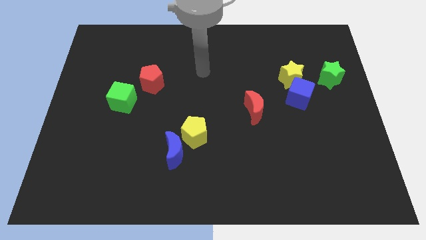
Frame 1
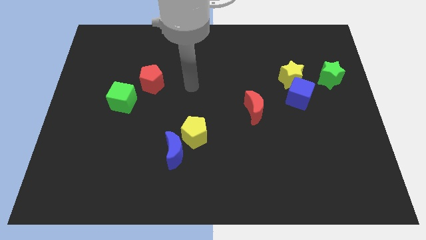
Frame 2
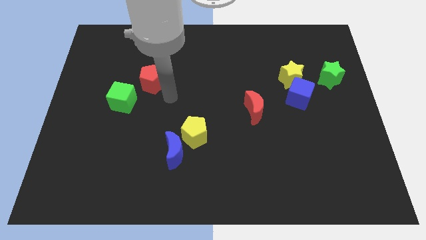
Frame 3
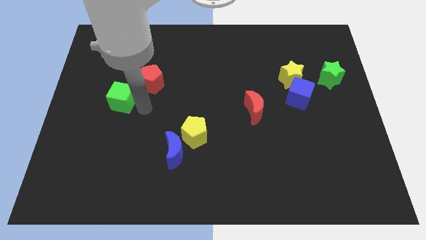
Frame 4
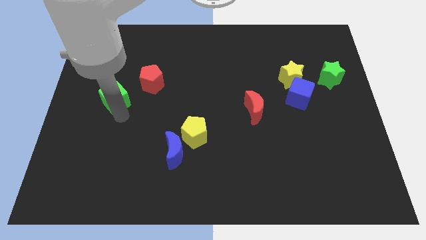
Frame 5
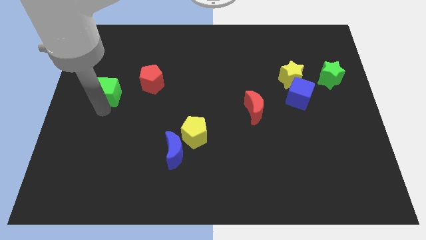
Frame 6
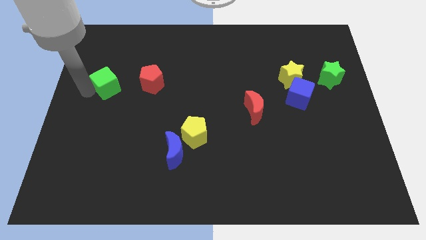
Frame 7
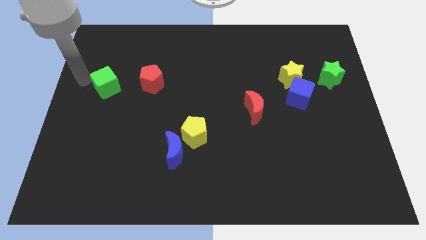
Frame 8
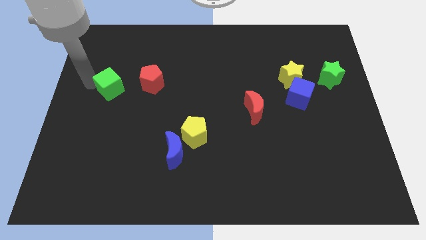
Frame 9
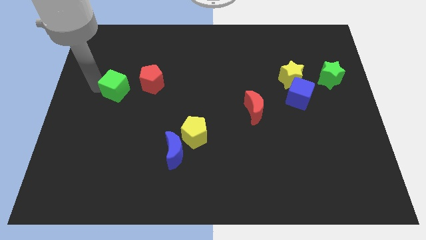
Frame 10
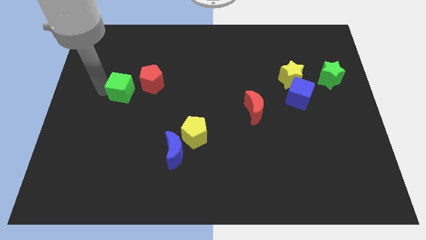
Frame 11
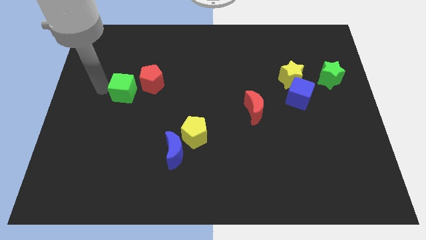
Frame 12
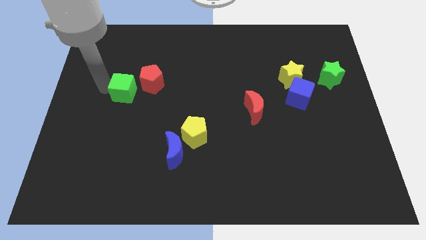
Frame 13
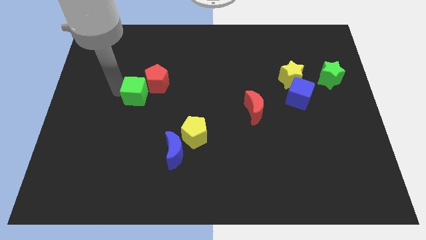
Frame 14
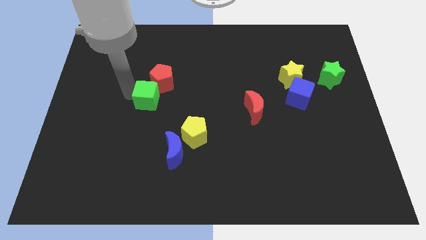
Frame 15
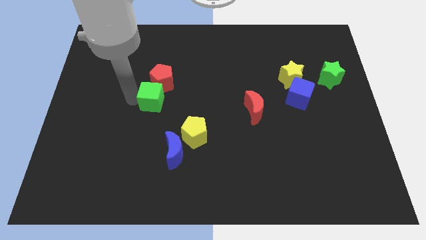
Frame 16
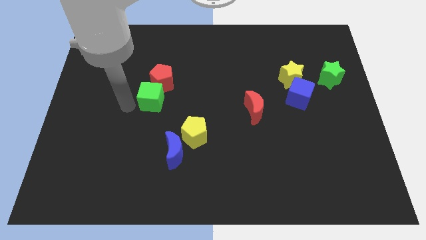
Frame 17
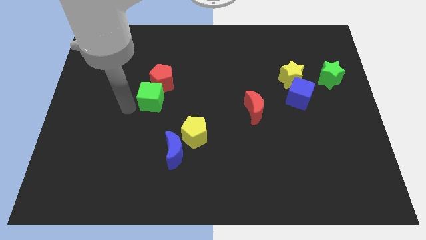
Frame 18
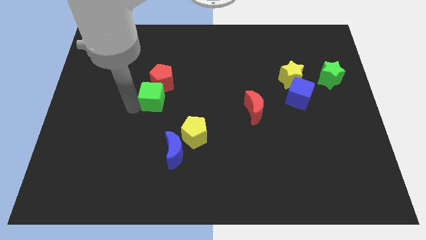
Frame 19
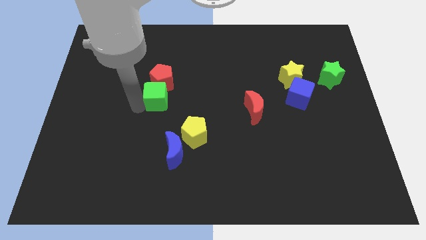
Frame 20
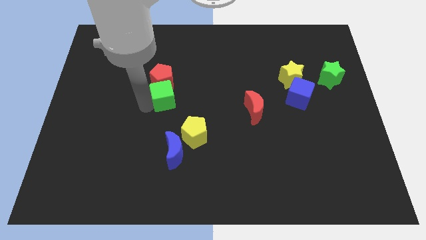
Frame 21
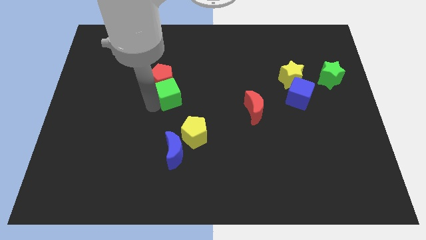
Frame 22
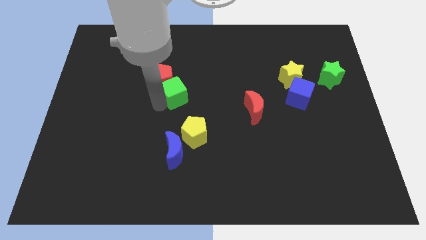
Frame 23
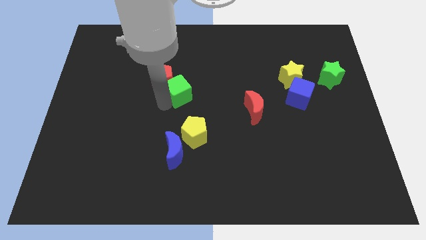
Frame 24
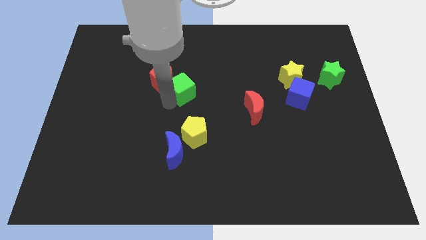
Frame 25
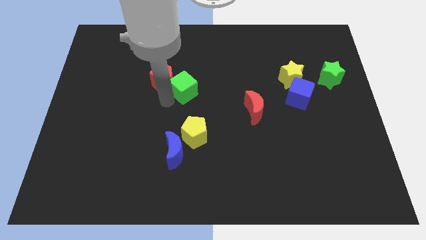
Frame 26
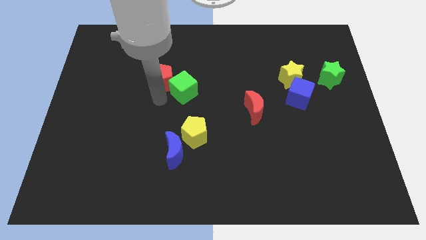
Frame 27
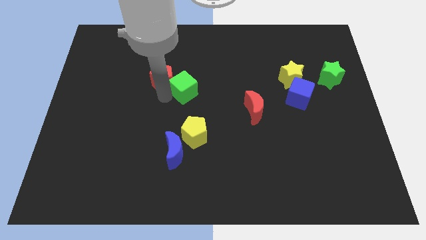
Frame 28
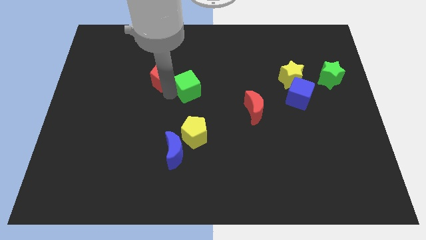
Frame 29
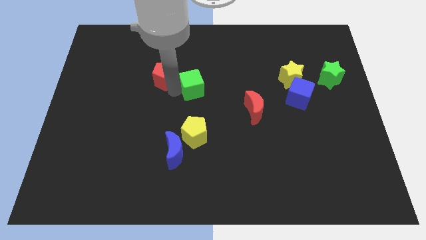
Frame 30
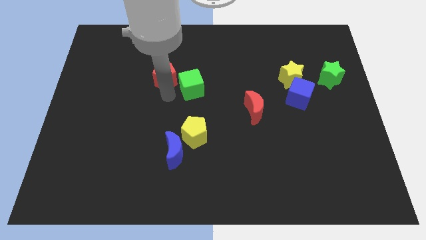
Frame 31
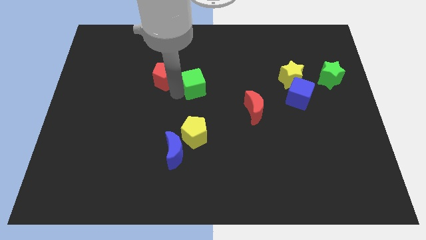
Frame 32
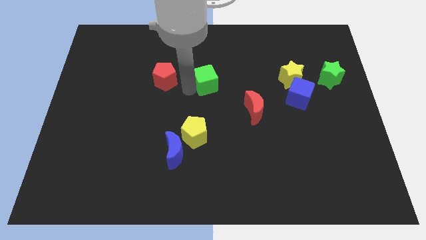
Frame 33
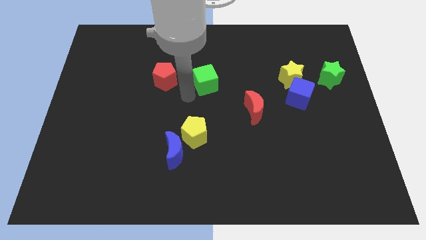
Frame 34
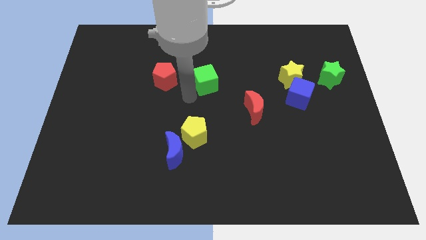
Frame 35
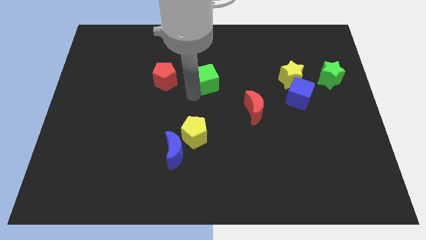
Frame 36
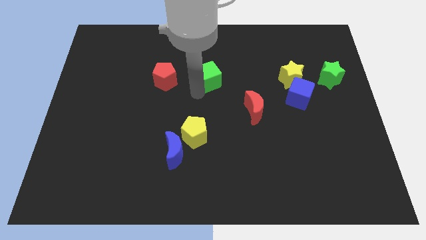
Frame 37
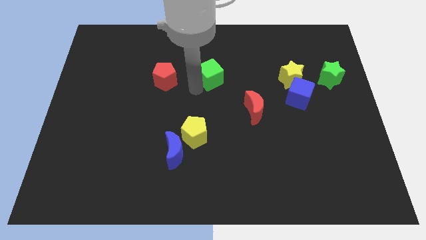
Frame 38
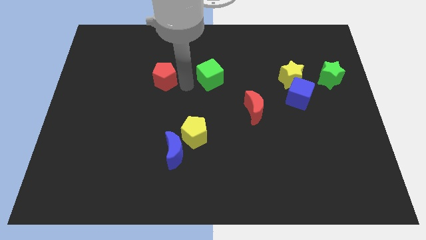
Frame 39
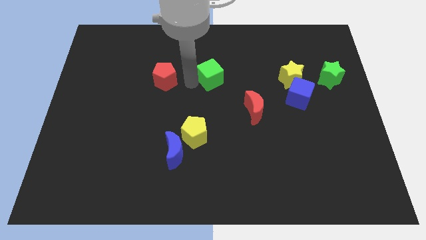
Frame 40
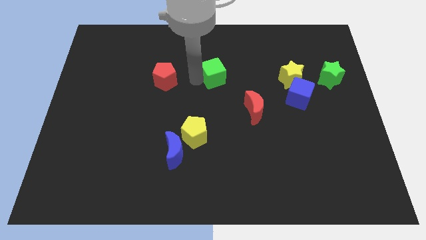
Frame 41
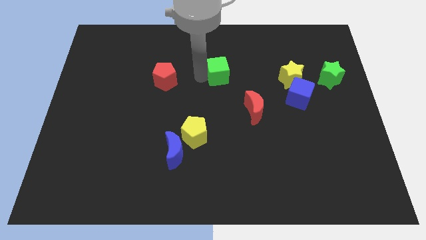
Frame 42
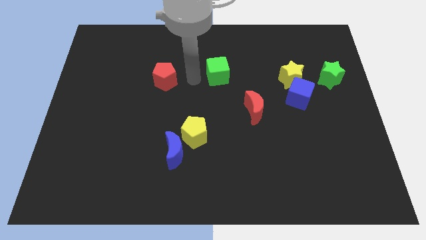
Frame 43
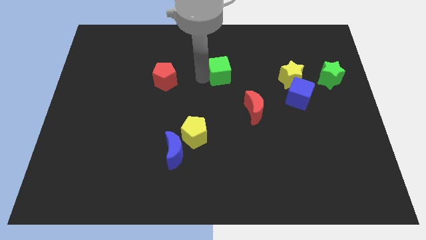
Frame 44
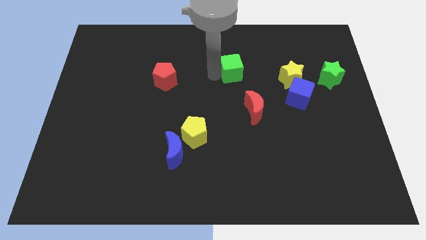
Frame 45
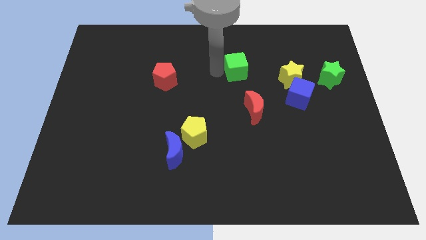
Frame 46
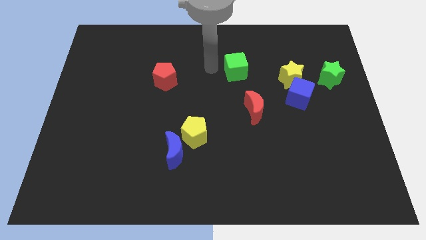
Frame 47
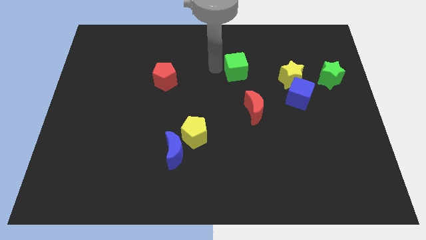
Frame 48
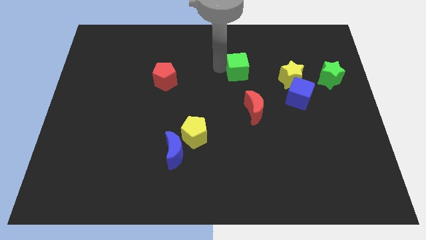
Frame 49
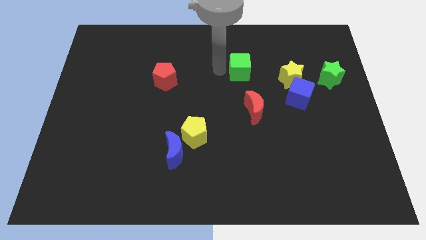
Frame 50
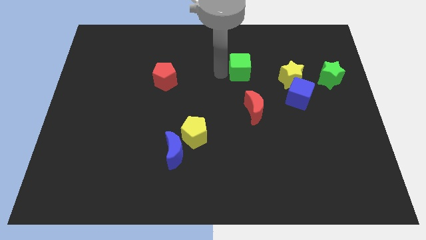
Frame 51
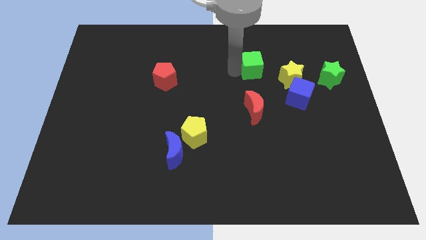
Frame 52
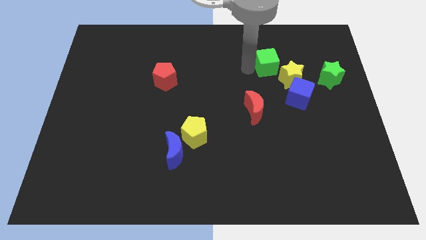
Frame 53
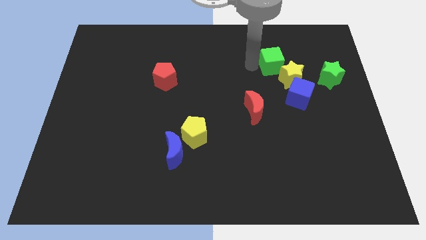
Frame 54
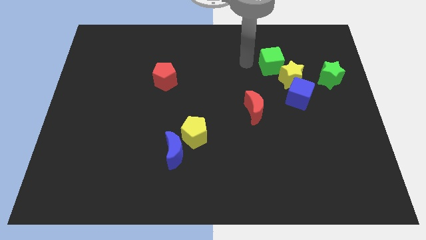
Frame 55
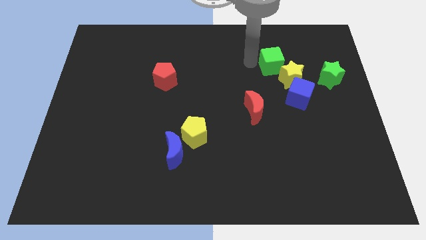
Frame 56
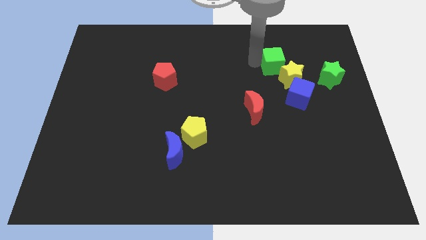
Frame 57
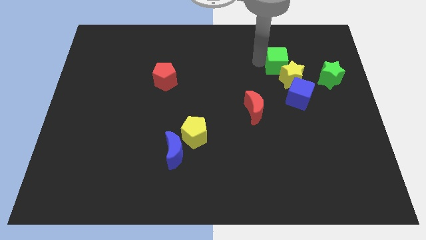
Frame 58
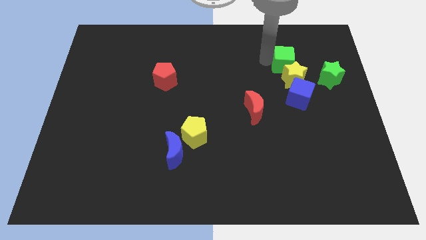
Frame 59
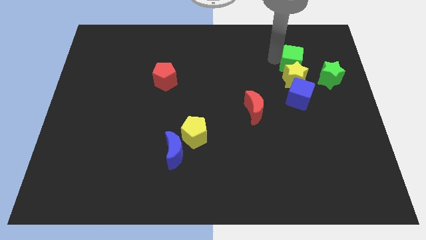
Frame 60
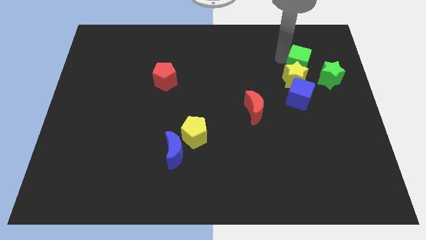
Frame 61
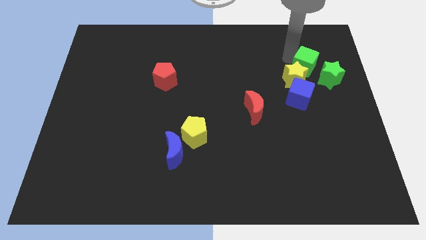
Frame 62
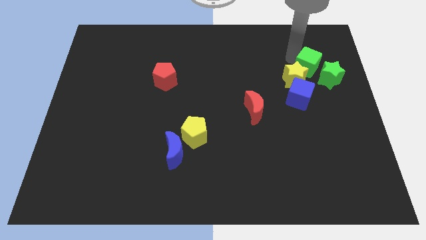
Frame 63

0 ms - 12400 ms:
put the green cube to the green star

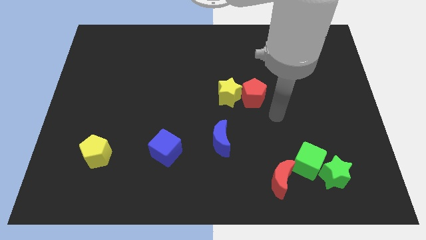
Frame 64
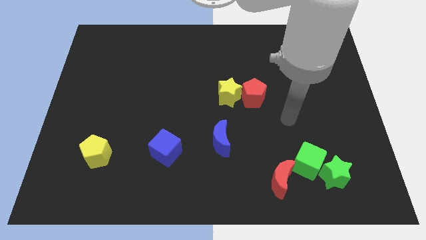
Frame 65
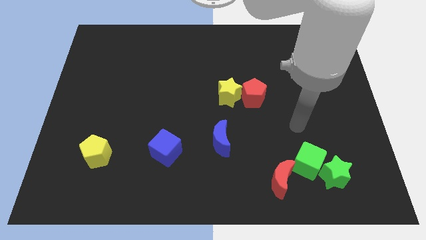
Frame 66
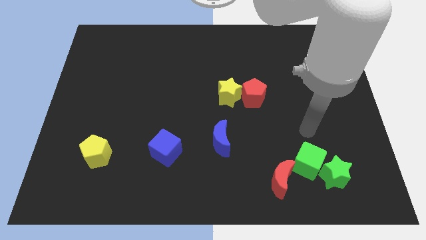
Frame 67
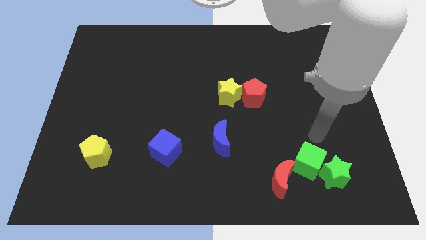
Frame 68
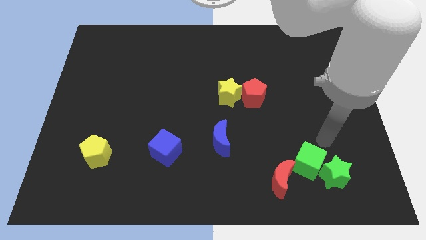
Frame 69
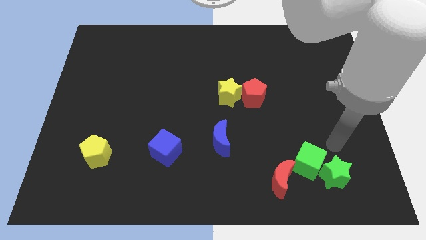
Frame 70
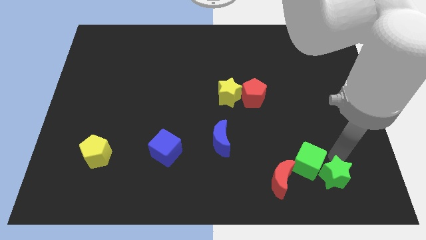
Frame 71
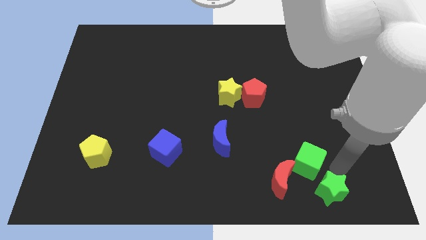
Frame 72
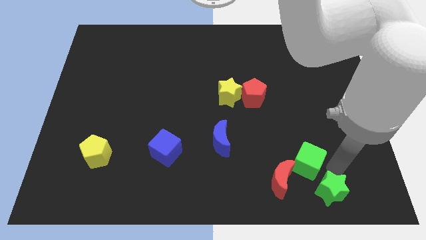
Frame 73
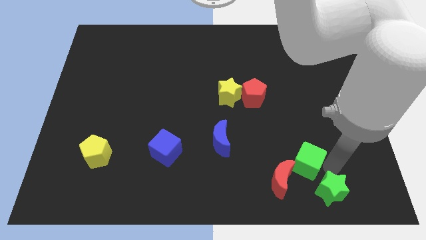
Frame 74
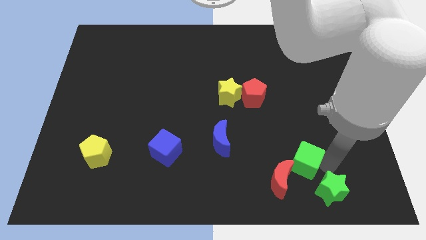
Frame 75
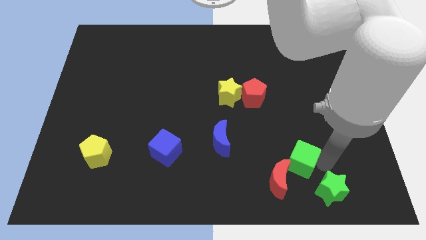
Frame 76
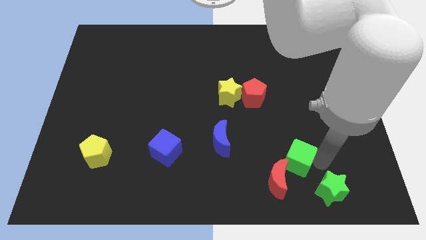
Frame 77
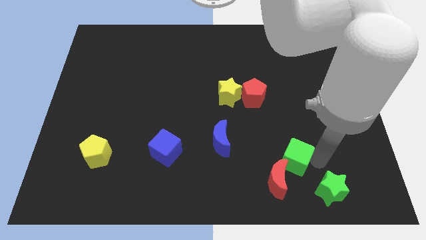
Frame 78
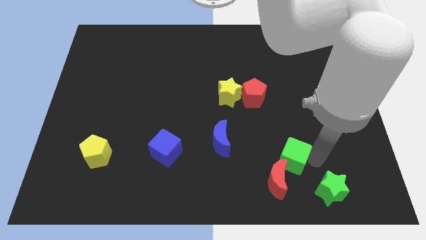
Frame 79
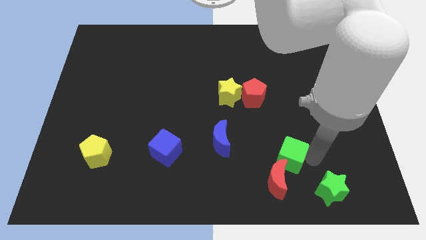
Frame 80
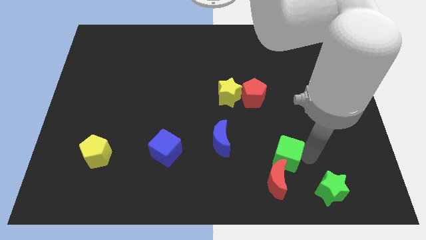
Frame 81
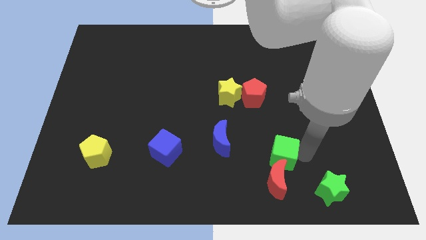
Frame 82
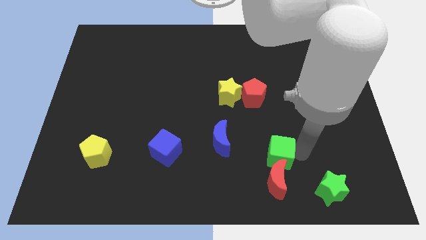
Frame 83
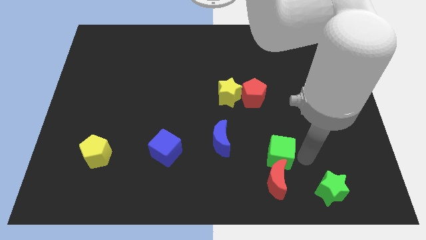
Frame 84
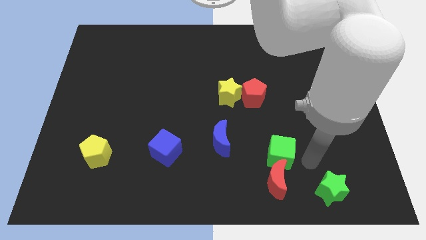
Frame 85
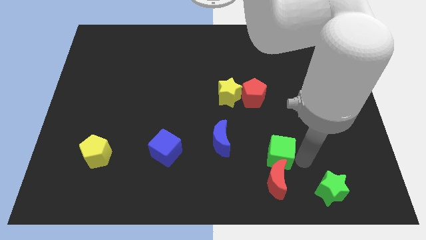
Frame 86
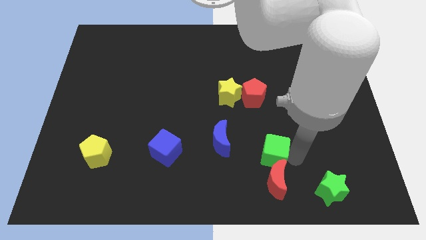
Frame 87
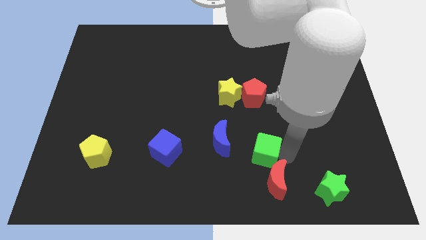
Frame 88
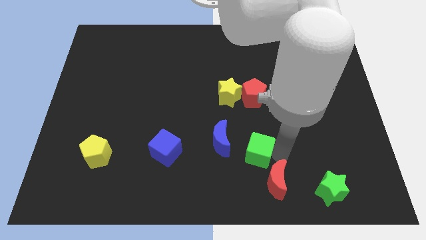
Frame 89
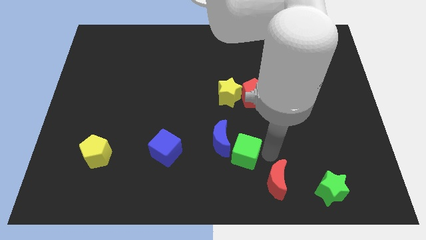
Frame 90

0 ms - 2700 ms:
slide the green cube close to the blue moon
